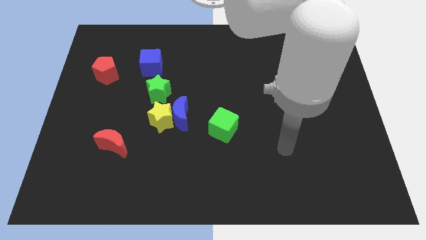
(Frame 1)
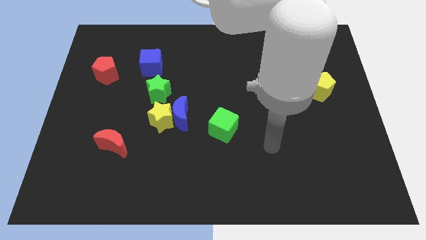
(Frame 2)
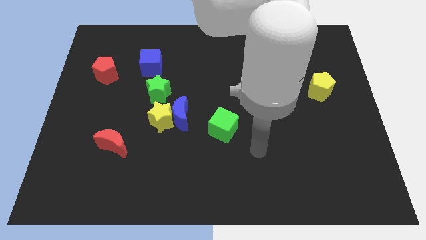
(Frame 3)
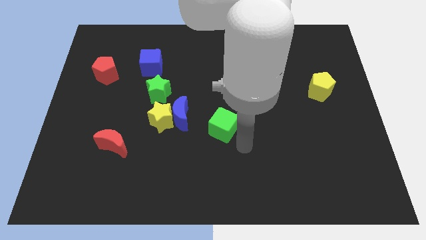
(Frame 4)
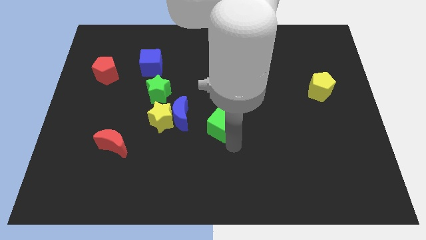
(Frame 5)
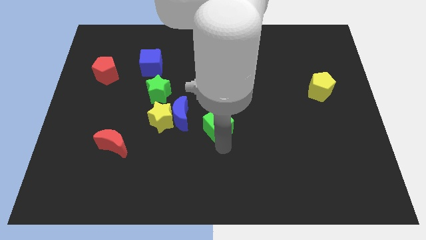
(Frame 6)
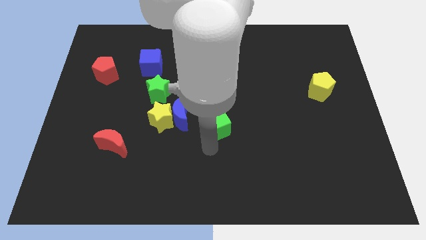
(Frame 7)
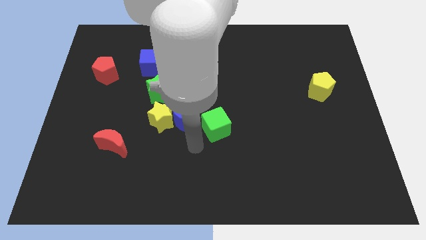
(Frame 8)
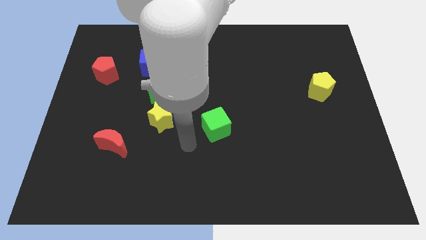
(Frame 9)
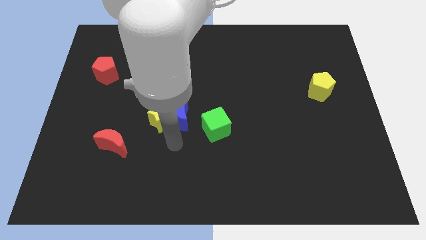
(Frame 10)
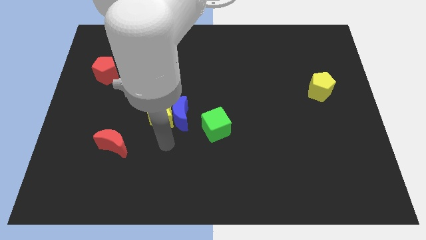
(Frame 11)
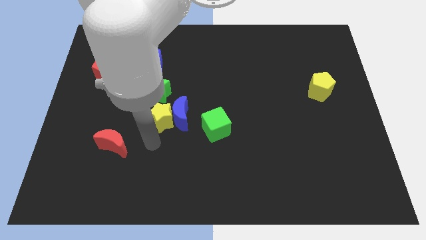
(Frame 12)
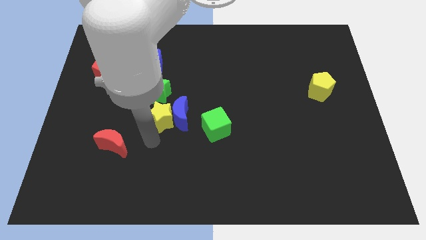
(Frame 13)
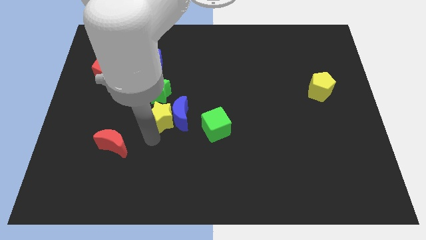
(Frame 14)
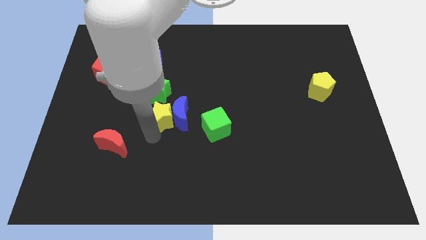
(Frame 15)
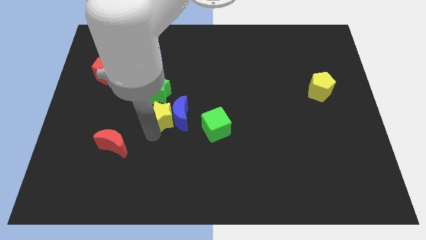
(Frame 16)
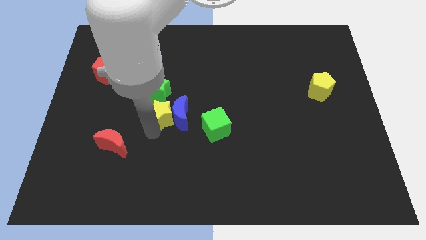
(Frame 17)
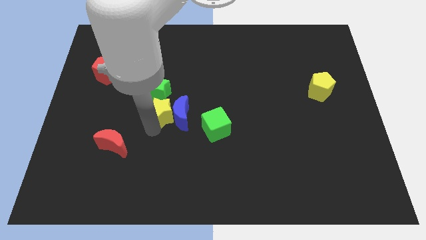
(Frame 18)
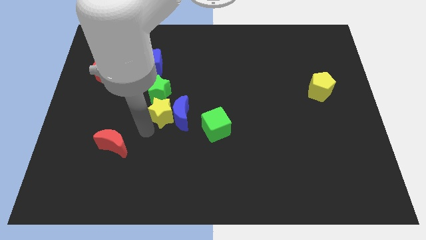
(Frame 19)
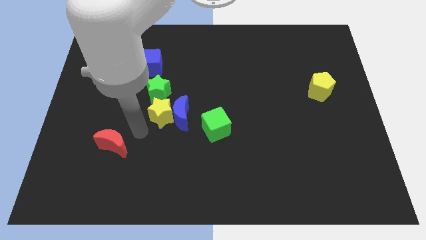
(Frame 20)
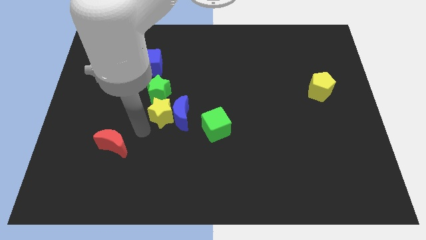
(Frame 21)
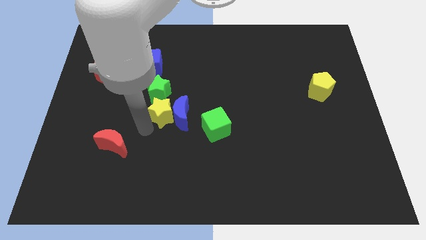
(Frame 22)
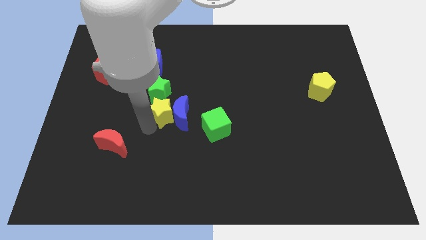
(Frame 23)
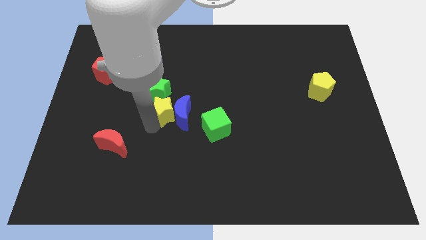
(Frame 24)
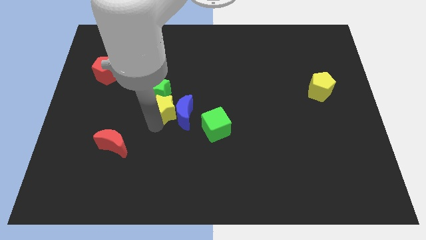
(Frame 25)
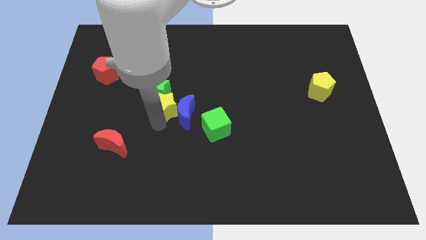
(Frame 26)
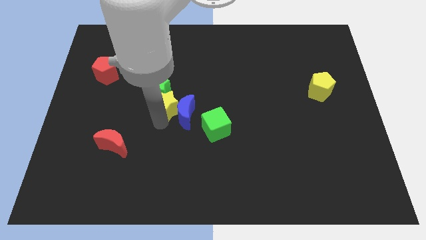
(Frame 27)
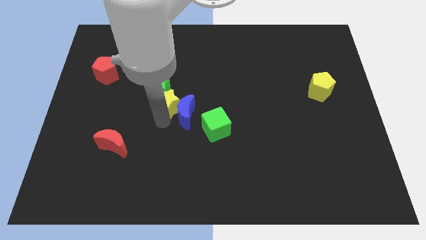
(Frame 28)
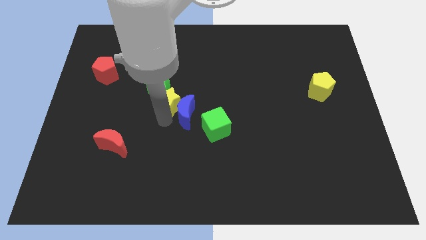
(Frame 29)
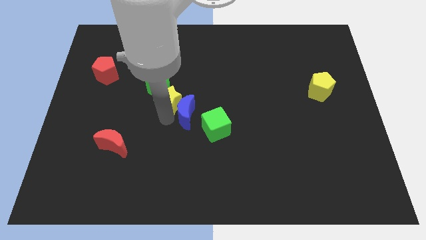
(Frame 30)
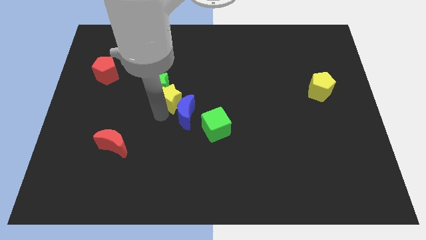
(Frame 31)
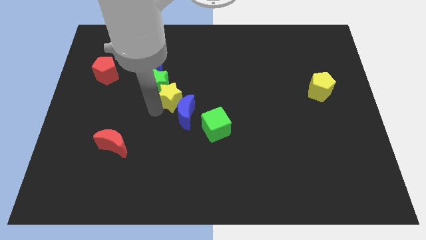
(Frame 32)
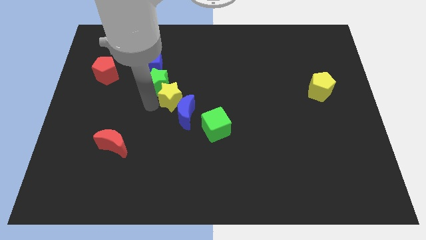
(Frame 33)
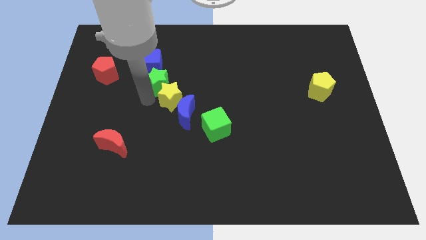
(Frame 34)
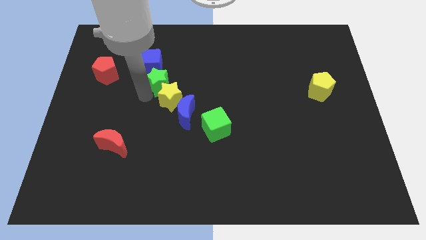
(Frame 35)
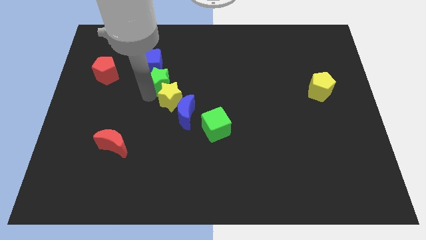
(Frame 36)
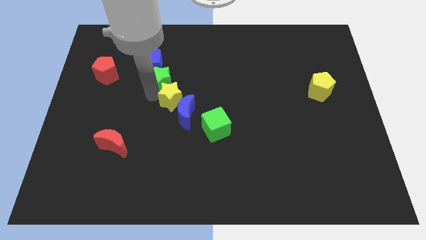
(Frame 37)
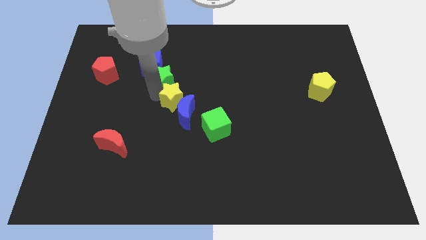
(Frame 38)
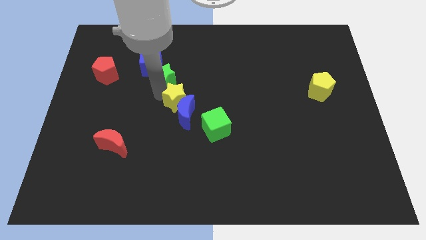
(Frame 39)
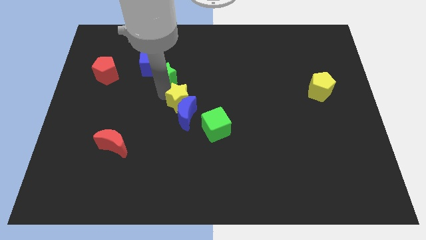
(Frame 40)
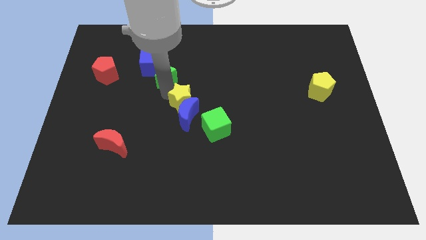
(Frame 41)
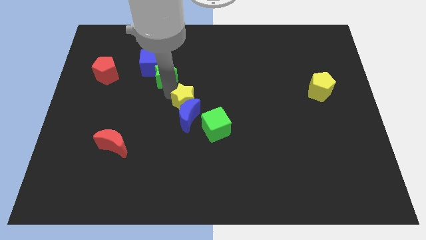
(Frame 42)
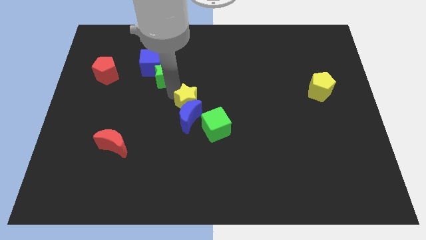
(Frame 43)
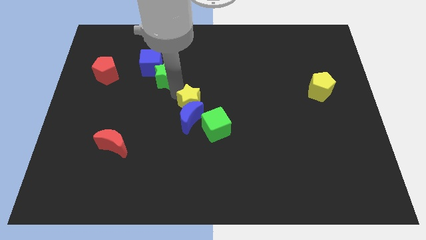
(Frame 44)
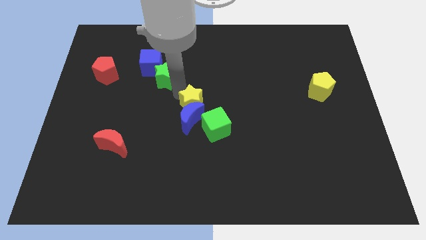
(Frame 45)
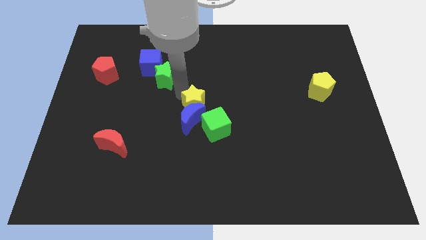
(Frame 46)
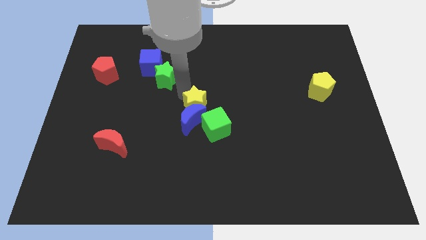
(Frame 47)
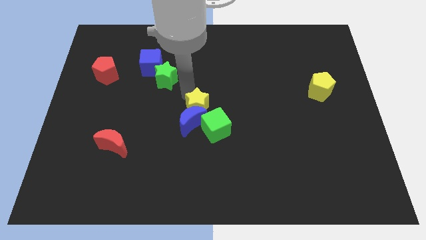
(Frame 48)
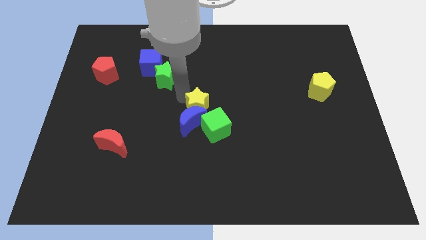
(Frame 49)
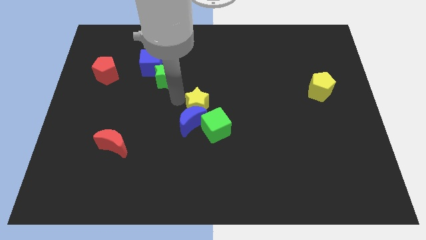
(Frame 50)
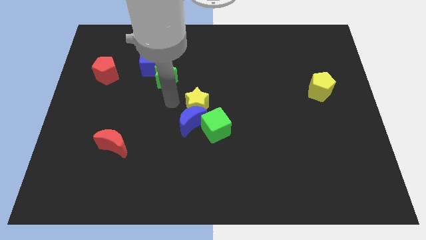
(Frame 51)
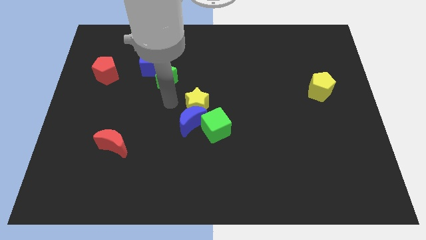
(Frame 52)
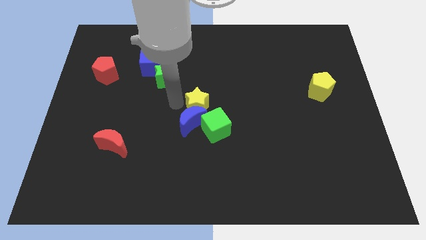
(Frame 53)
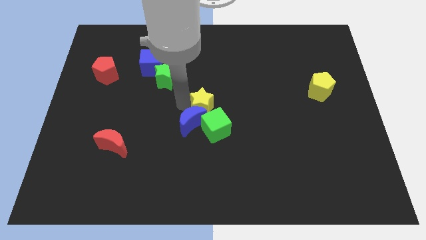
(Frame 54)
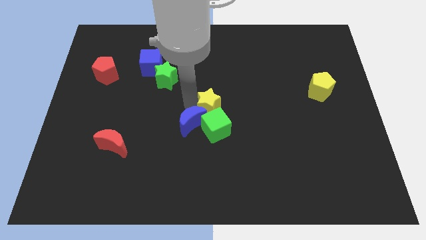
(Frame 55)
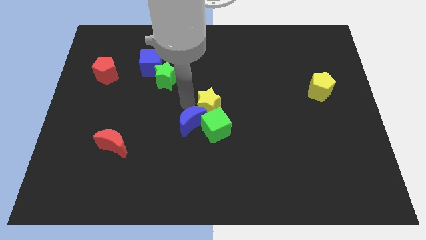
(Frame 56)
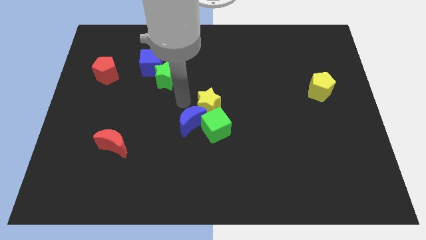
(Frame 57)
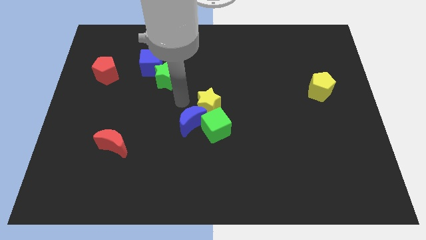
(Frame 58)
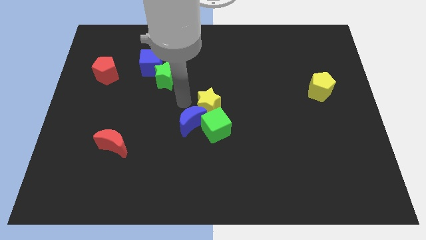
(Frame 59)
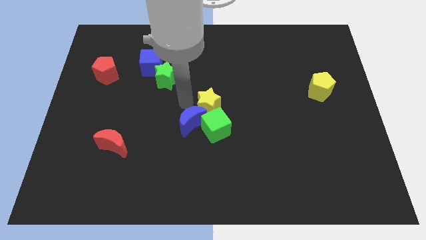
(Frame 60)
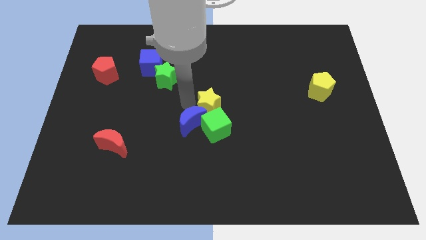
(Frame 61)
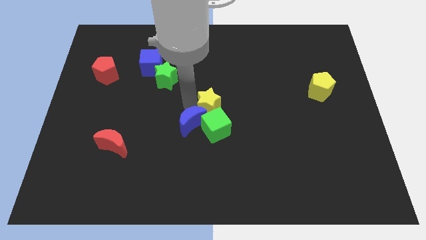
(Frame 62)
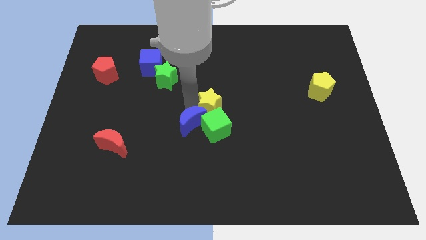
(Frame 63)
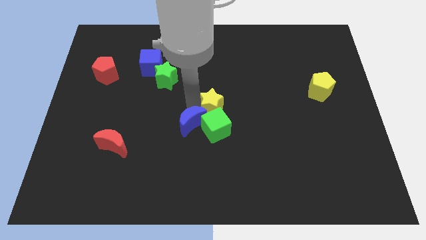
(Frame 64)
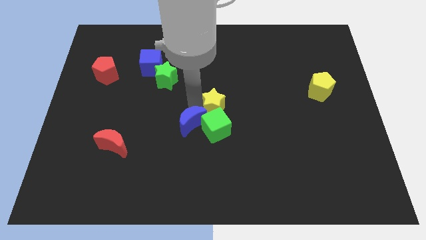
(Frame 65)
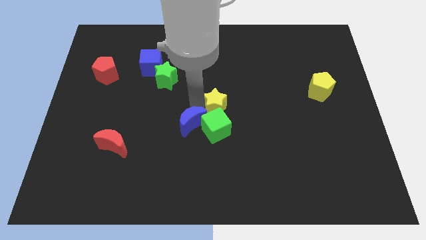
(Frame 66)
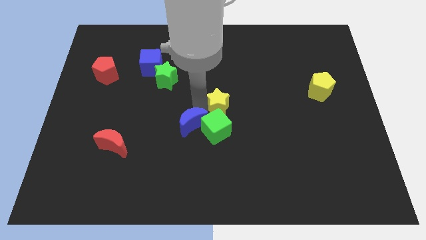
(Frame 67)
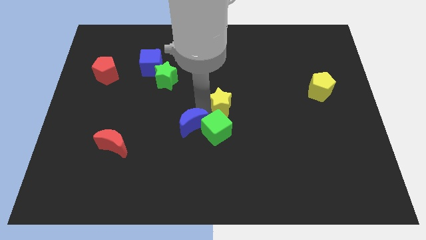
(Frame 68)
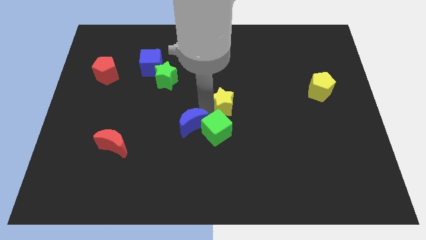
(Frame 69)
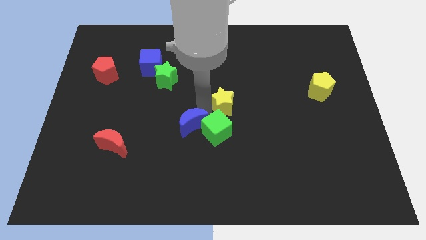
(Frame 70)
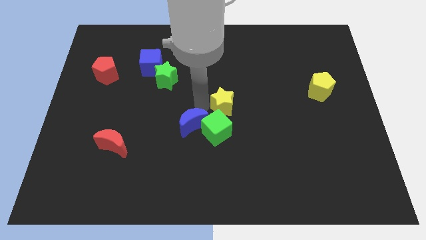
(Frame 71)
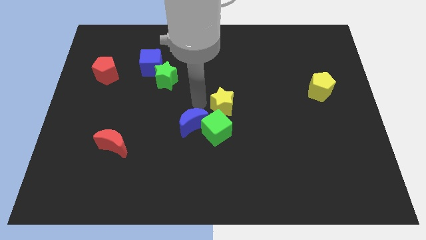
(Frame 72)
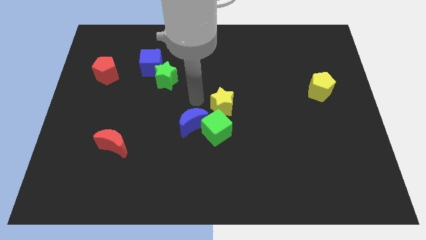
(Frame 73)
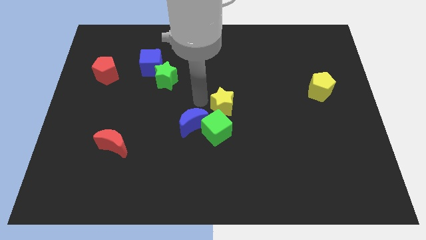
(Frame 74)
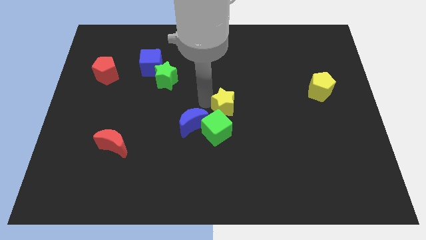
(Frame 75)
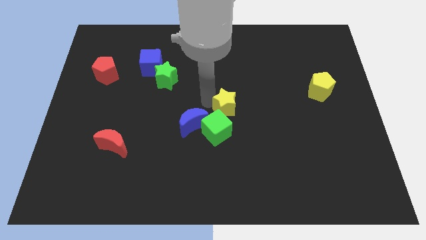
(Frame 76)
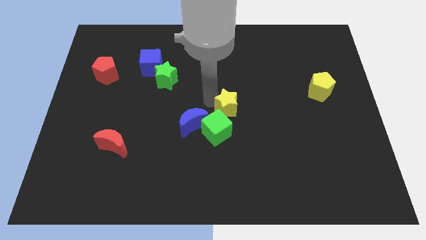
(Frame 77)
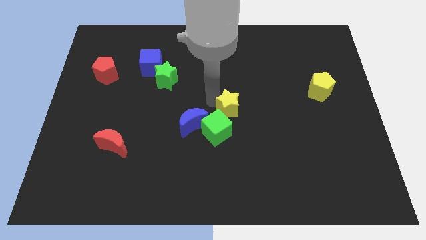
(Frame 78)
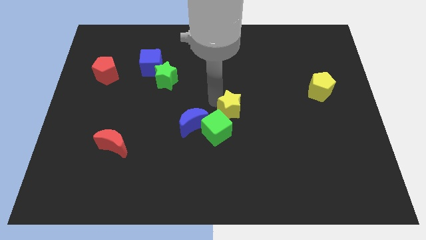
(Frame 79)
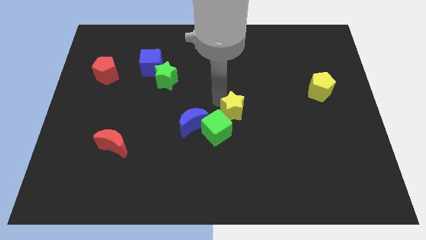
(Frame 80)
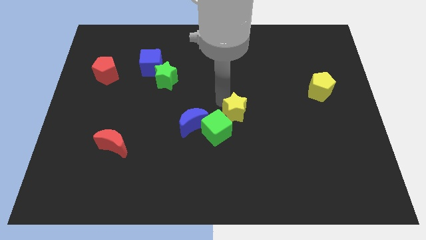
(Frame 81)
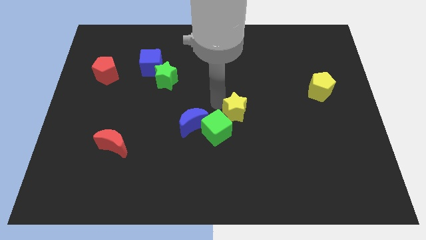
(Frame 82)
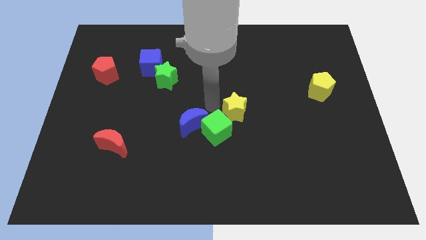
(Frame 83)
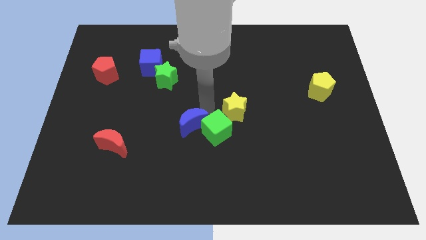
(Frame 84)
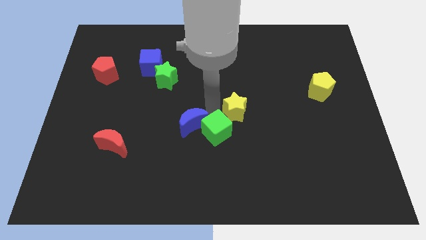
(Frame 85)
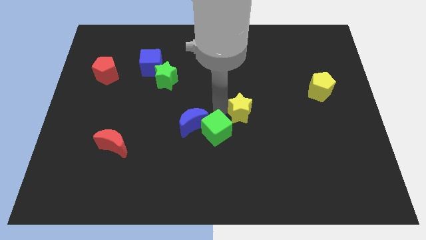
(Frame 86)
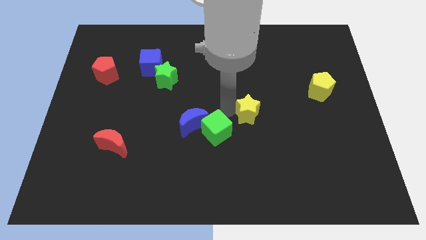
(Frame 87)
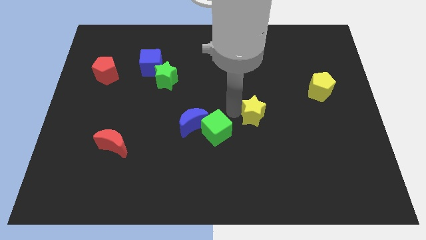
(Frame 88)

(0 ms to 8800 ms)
slide the yellow star right
